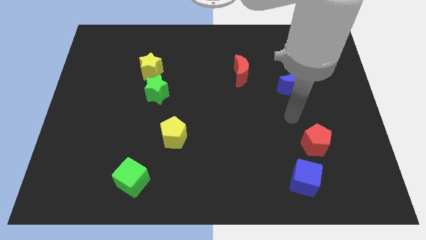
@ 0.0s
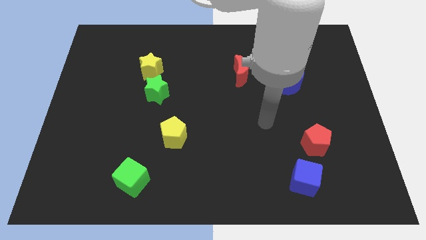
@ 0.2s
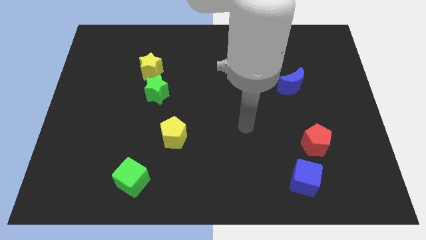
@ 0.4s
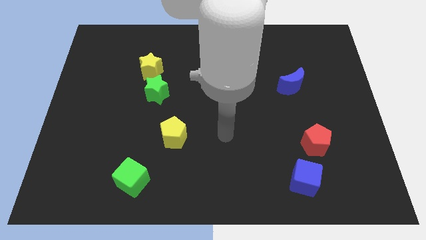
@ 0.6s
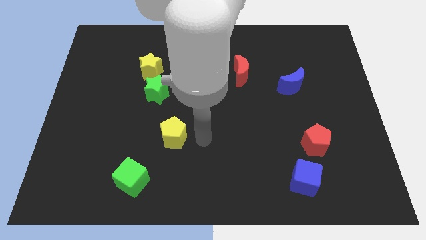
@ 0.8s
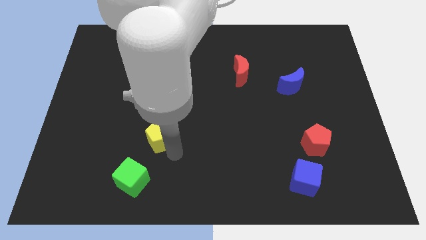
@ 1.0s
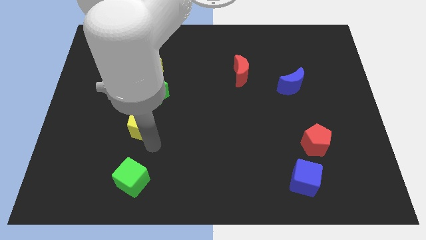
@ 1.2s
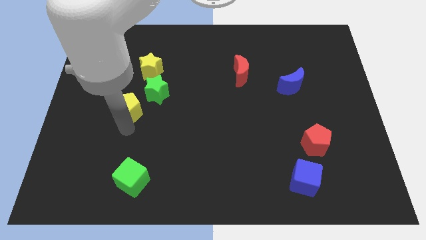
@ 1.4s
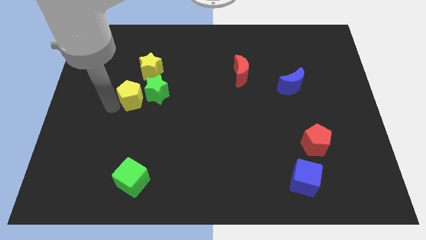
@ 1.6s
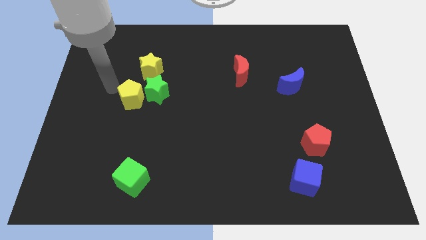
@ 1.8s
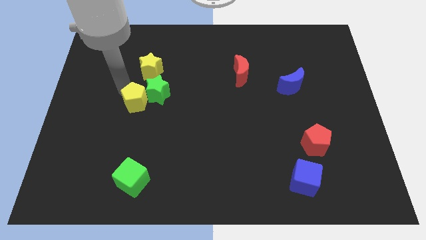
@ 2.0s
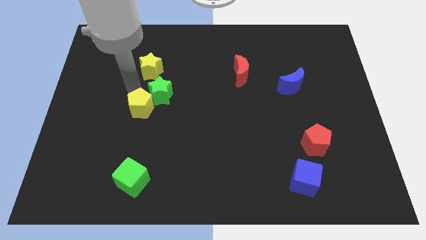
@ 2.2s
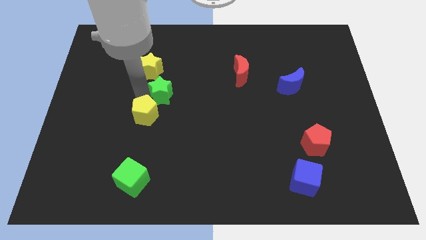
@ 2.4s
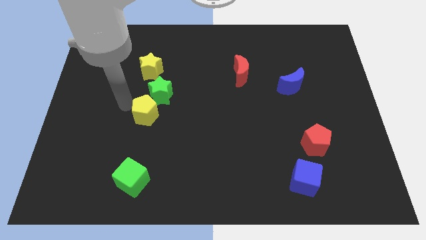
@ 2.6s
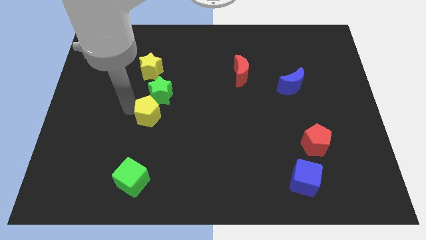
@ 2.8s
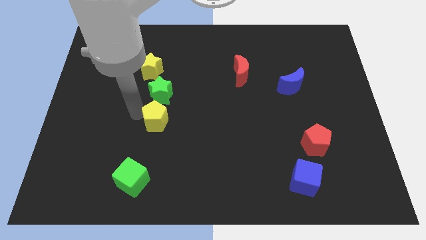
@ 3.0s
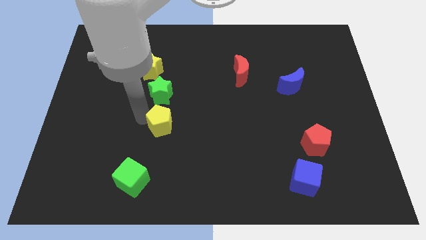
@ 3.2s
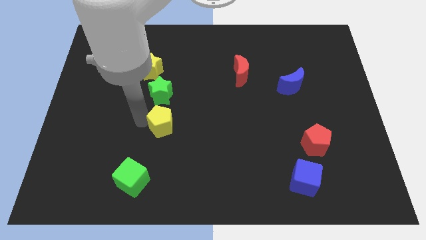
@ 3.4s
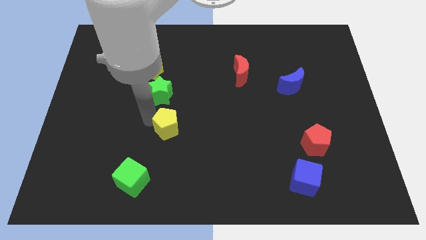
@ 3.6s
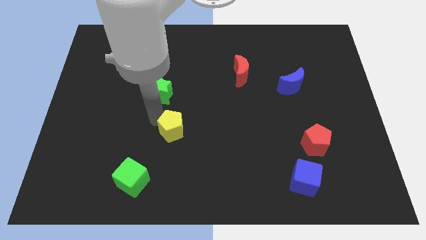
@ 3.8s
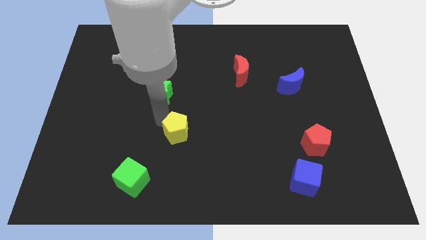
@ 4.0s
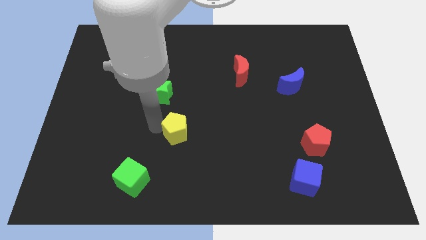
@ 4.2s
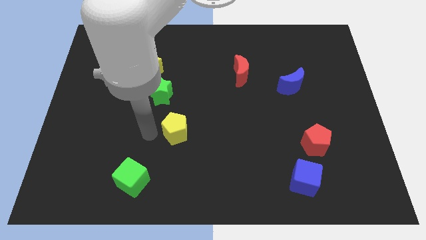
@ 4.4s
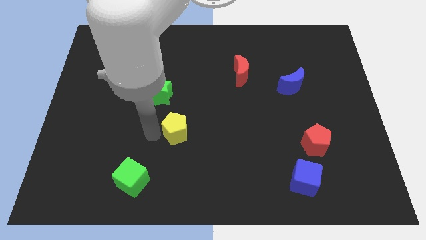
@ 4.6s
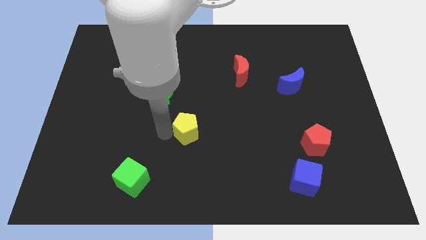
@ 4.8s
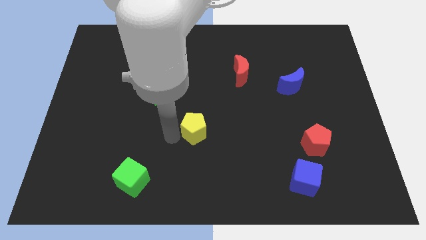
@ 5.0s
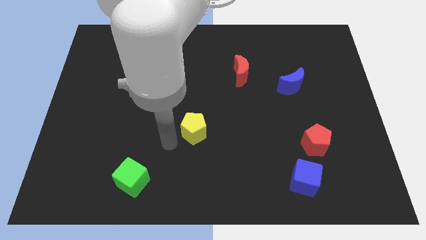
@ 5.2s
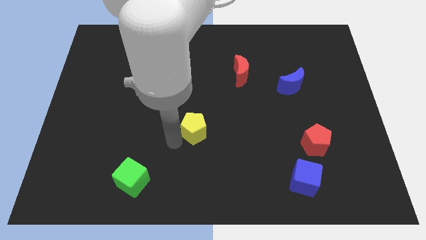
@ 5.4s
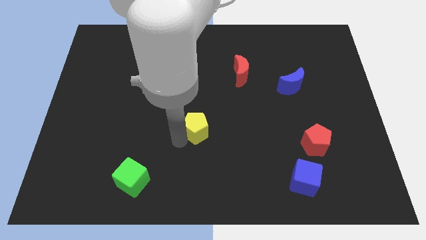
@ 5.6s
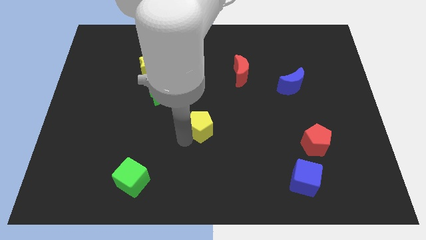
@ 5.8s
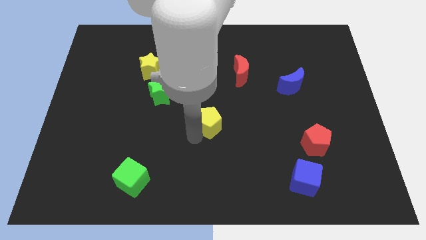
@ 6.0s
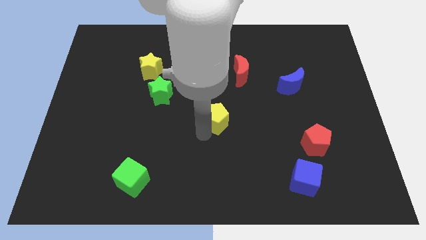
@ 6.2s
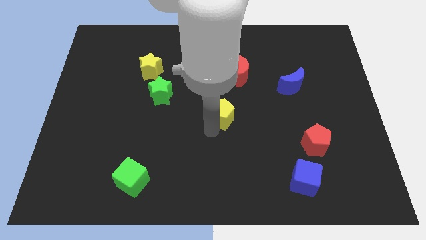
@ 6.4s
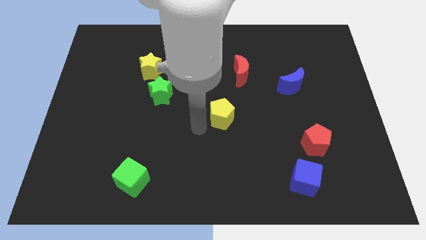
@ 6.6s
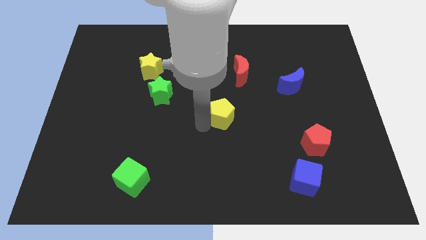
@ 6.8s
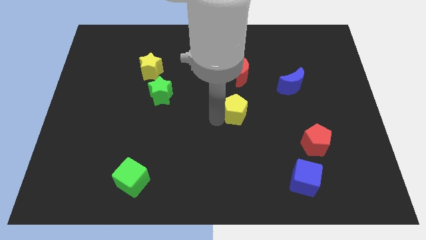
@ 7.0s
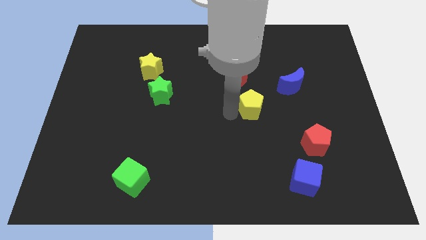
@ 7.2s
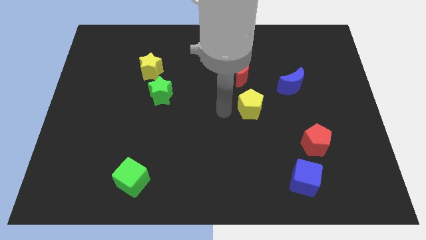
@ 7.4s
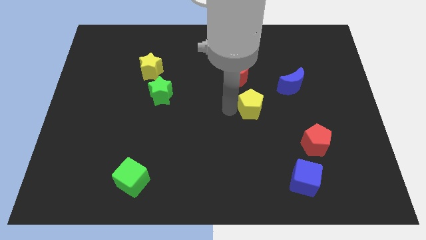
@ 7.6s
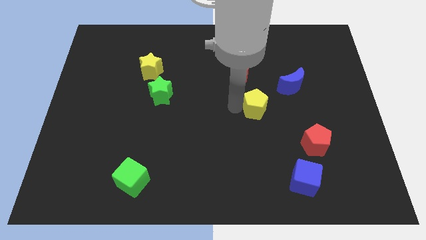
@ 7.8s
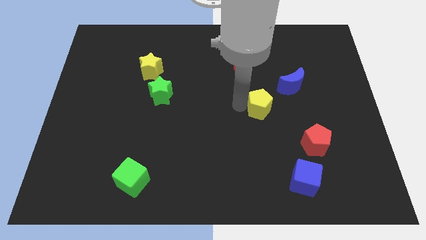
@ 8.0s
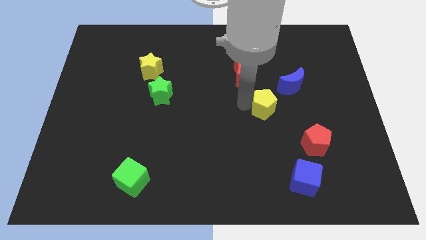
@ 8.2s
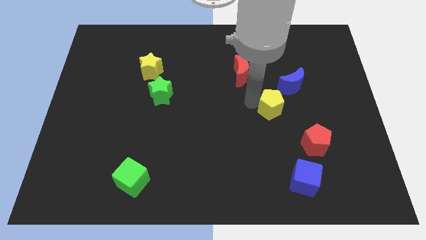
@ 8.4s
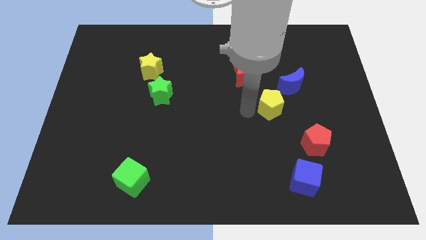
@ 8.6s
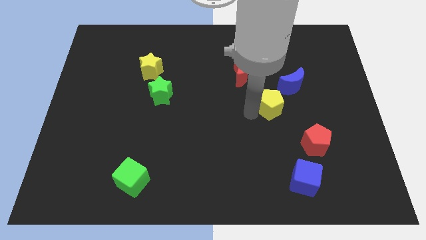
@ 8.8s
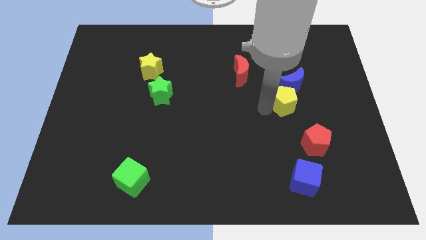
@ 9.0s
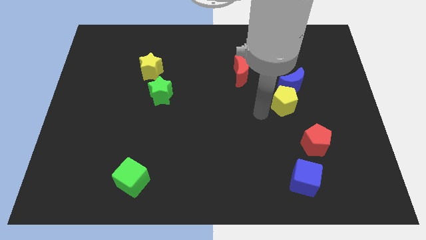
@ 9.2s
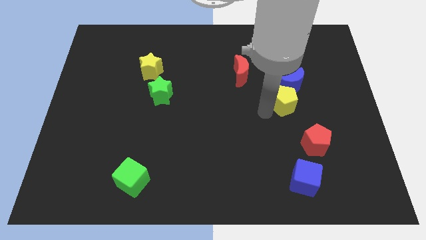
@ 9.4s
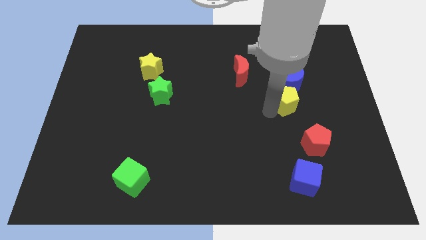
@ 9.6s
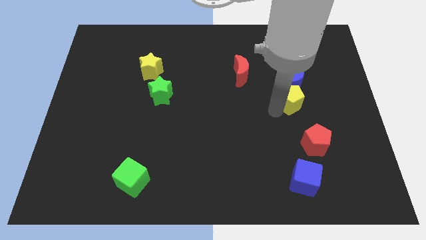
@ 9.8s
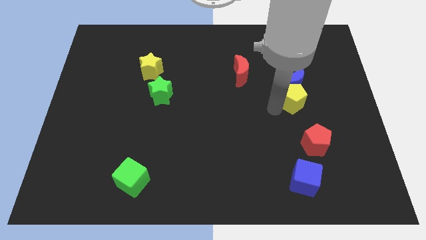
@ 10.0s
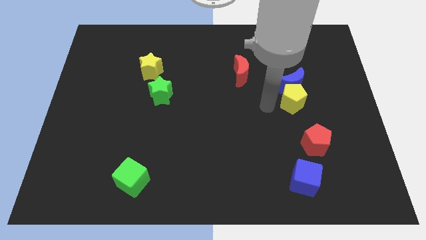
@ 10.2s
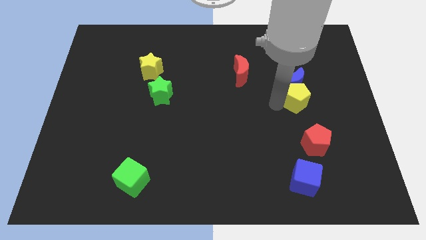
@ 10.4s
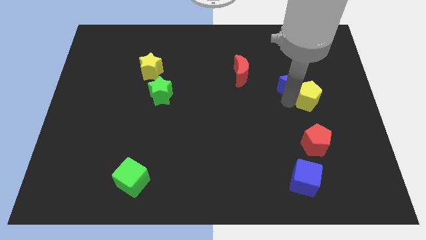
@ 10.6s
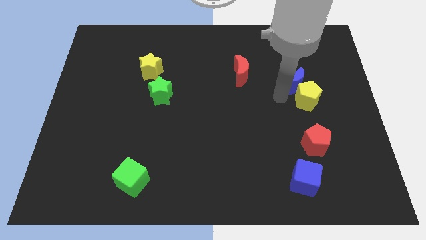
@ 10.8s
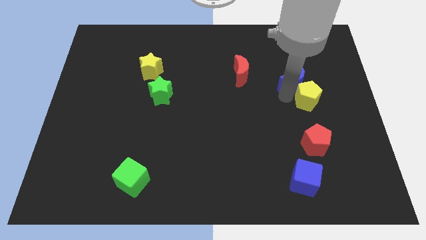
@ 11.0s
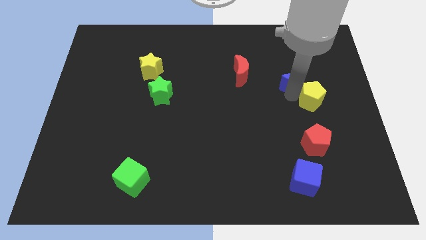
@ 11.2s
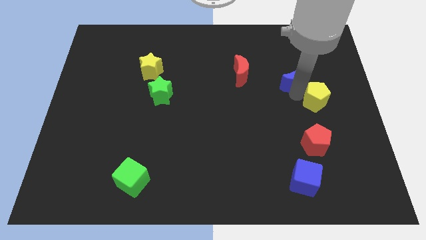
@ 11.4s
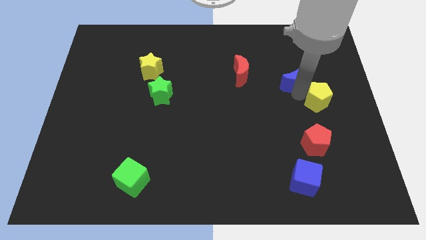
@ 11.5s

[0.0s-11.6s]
slide the yellow pentagon to the center right
